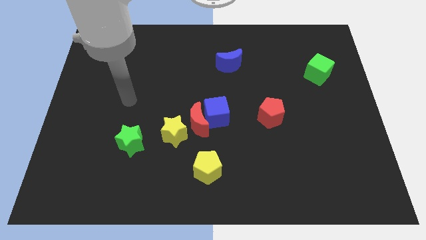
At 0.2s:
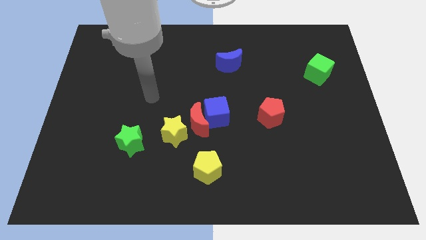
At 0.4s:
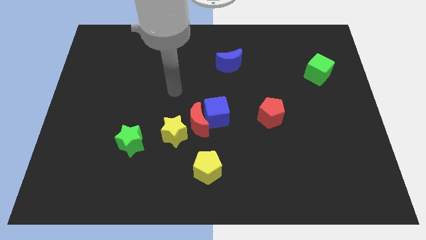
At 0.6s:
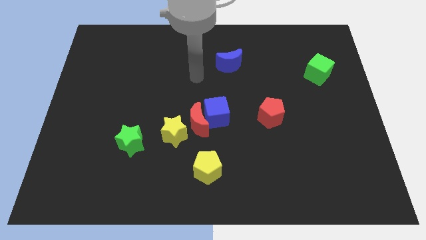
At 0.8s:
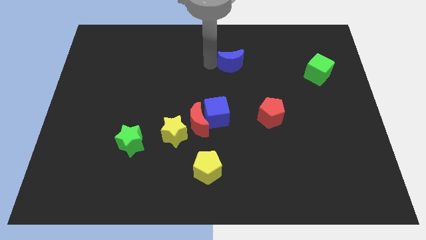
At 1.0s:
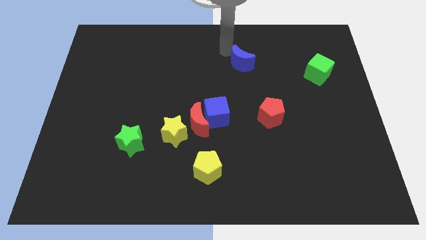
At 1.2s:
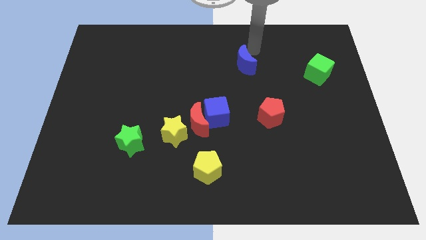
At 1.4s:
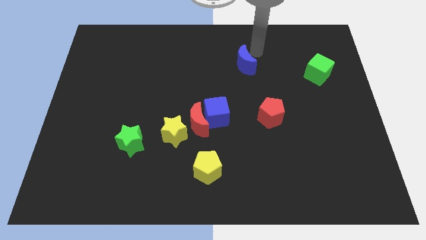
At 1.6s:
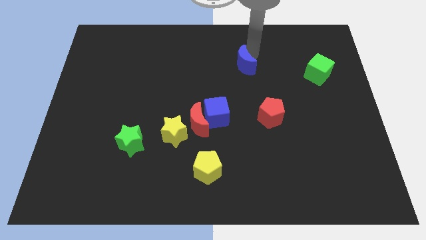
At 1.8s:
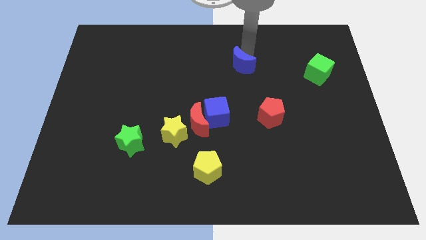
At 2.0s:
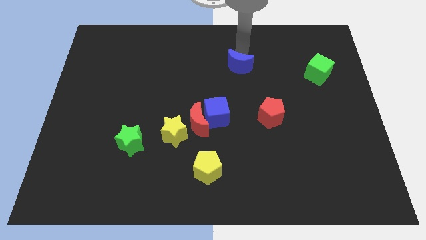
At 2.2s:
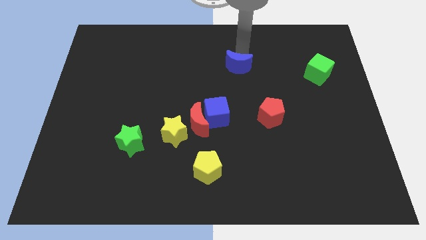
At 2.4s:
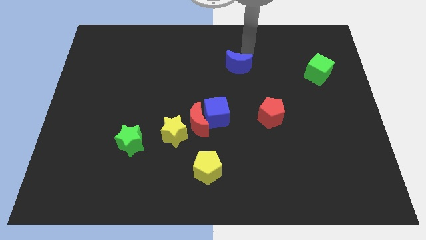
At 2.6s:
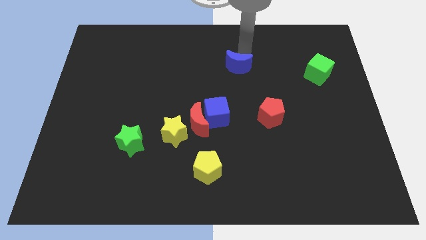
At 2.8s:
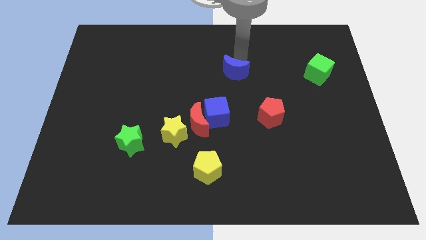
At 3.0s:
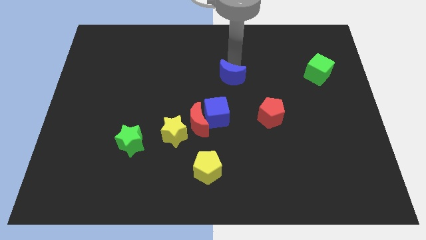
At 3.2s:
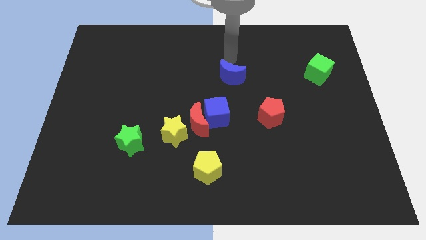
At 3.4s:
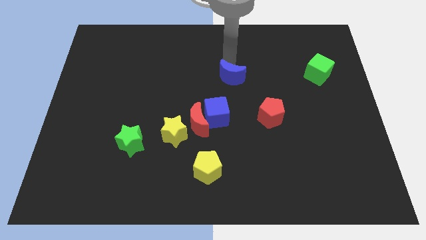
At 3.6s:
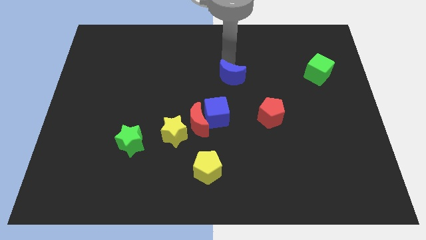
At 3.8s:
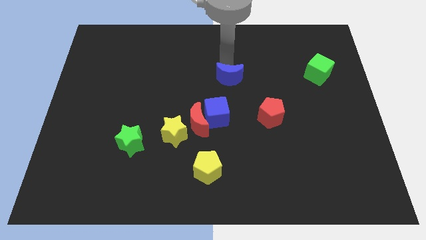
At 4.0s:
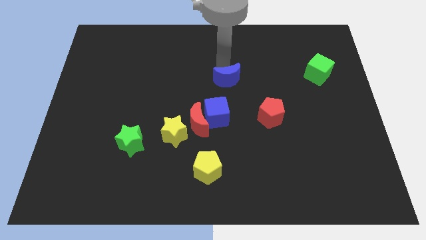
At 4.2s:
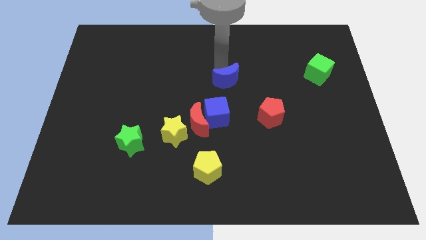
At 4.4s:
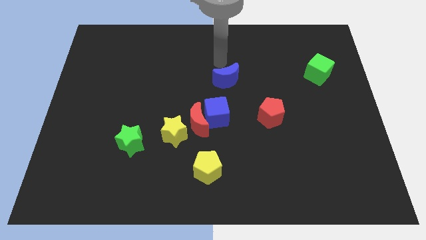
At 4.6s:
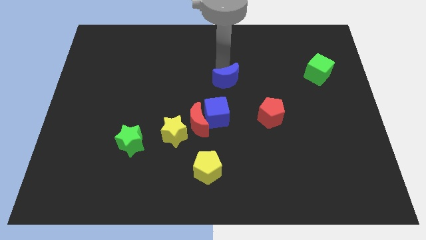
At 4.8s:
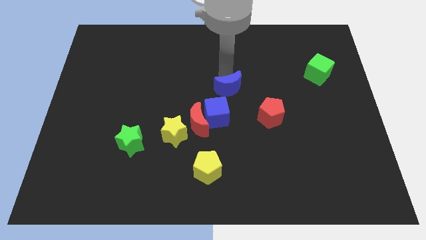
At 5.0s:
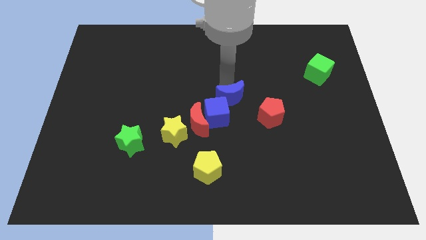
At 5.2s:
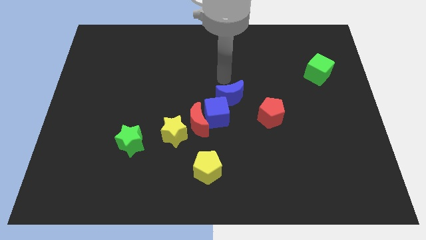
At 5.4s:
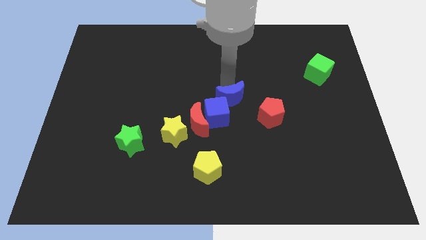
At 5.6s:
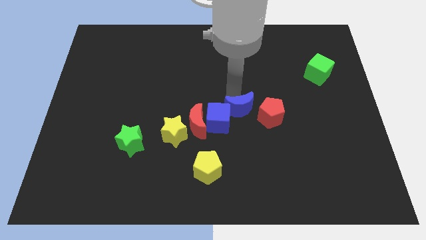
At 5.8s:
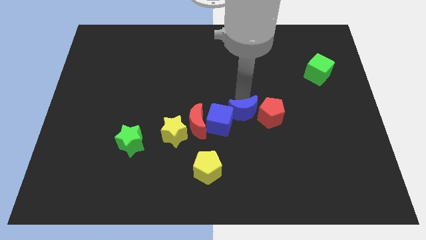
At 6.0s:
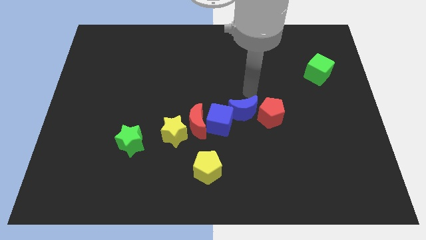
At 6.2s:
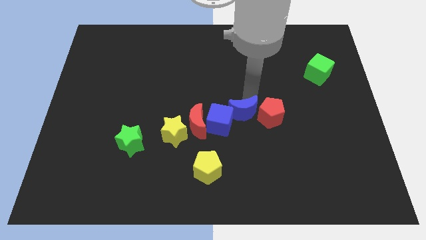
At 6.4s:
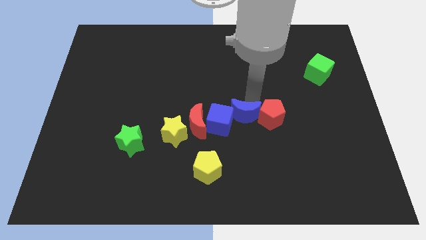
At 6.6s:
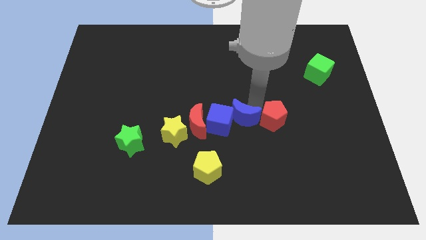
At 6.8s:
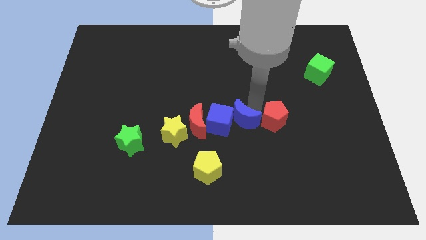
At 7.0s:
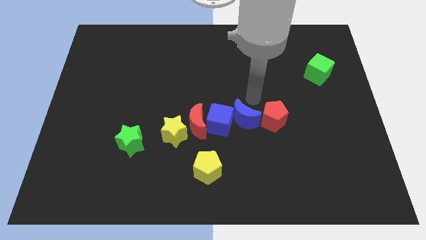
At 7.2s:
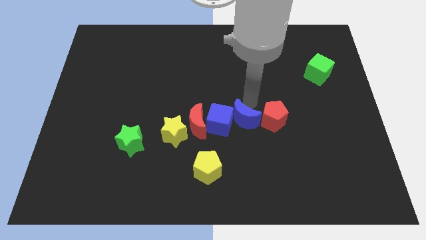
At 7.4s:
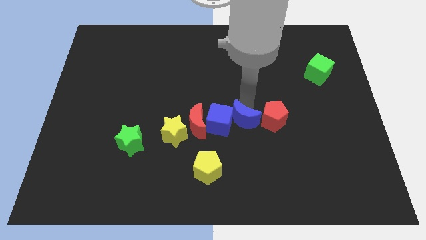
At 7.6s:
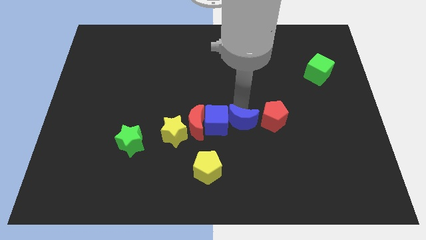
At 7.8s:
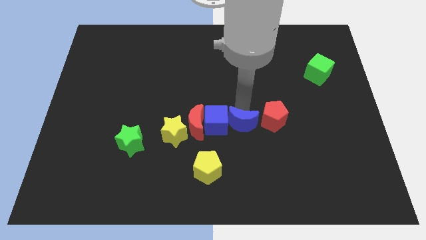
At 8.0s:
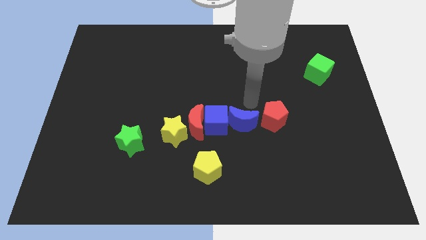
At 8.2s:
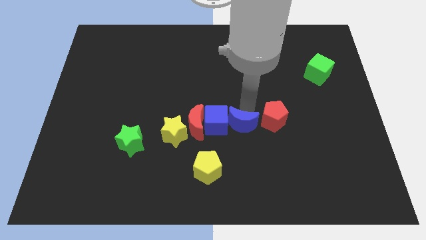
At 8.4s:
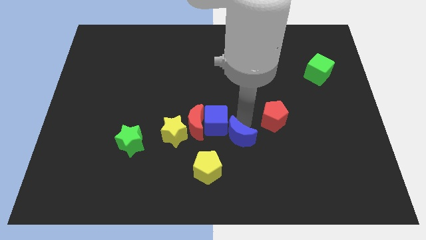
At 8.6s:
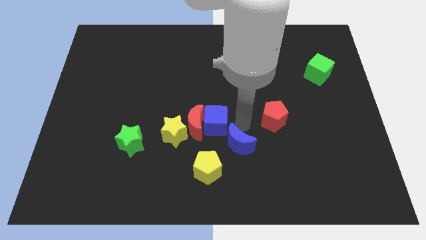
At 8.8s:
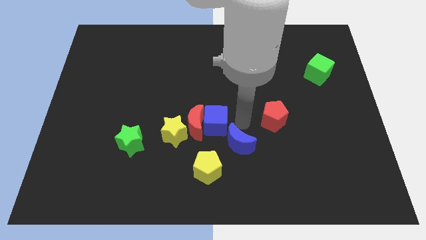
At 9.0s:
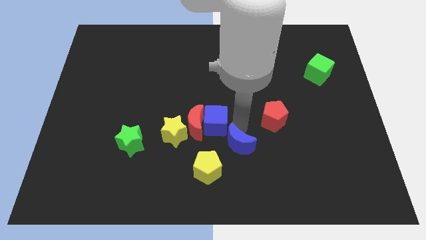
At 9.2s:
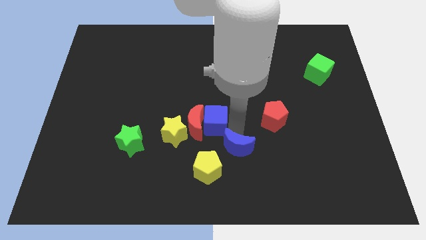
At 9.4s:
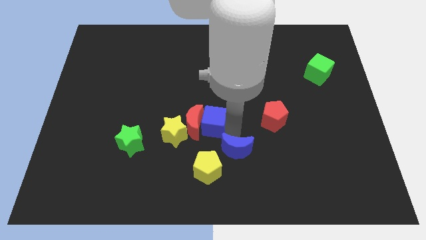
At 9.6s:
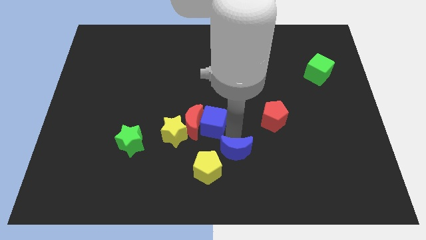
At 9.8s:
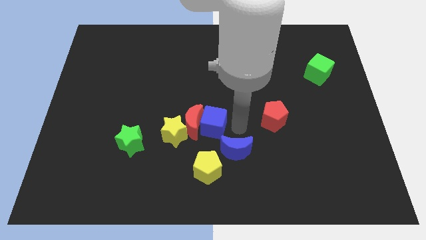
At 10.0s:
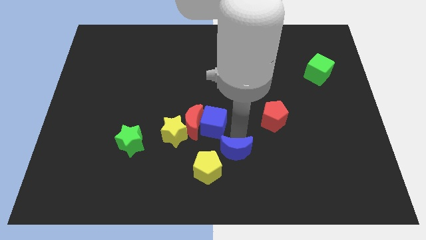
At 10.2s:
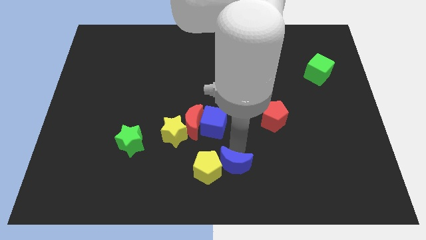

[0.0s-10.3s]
put the blue moon to the bottom side

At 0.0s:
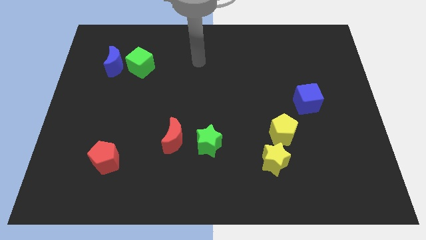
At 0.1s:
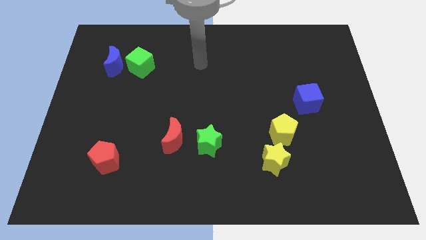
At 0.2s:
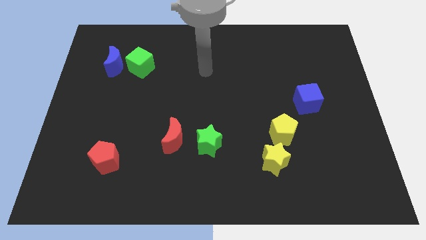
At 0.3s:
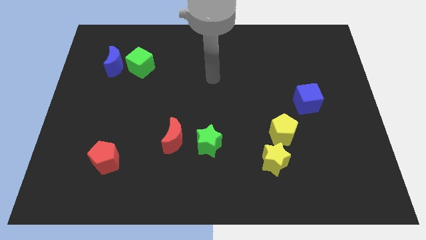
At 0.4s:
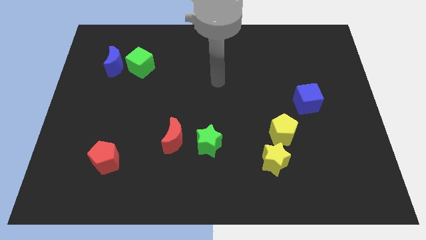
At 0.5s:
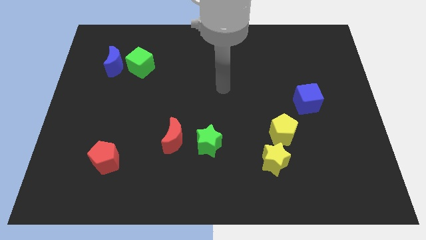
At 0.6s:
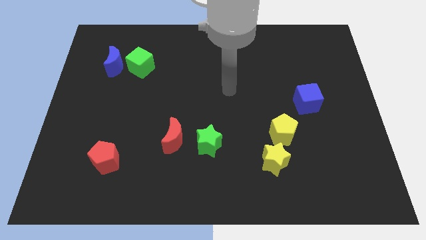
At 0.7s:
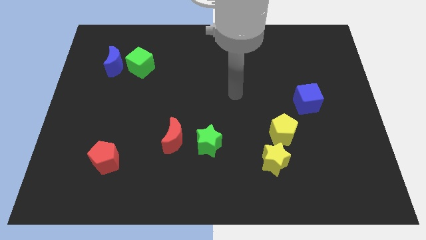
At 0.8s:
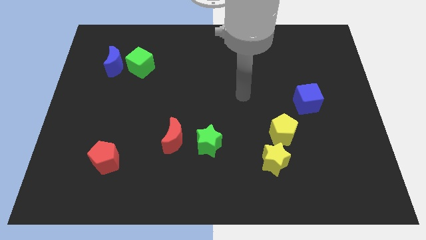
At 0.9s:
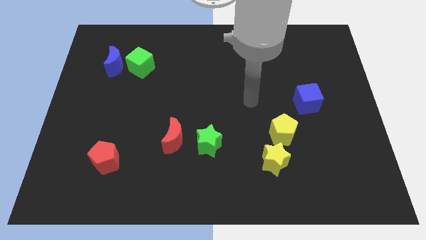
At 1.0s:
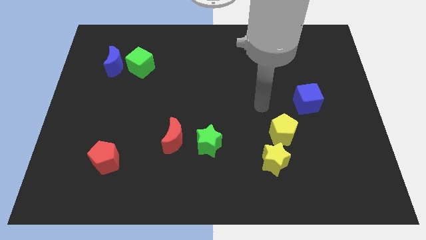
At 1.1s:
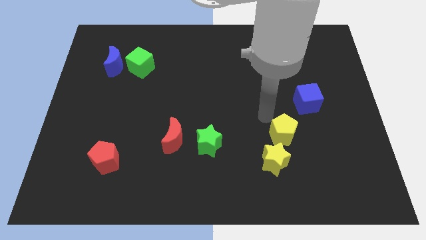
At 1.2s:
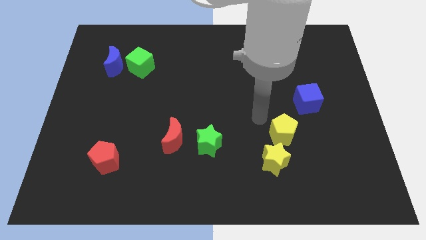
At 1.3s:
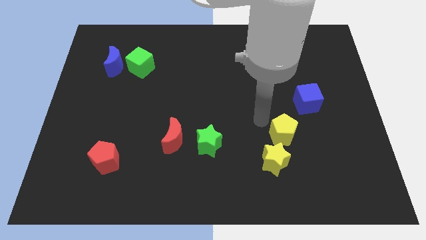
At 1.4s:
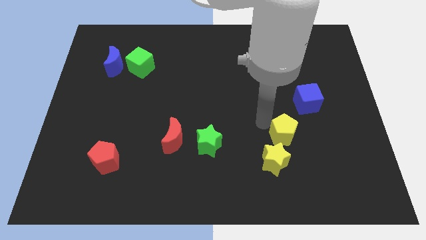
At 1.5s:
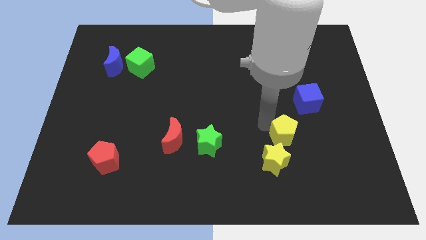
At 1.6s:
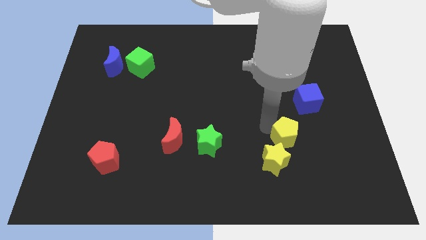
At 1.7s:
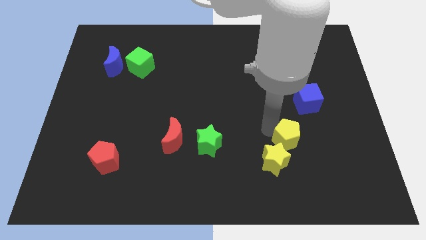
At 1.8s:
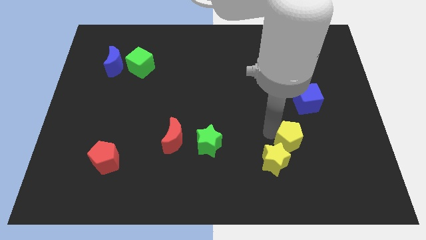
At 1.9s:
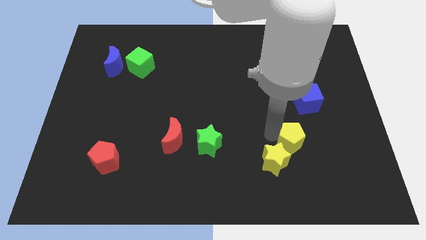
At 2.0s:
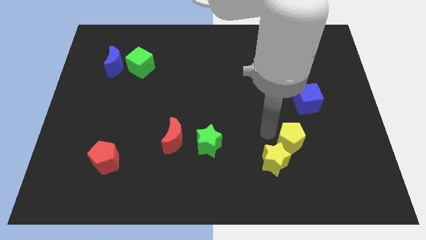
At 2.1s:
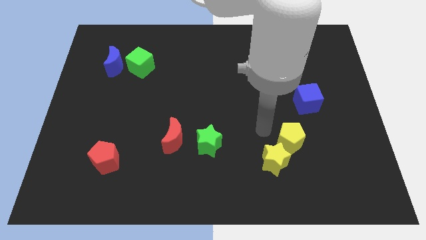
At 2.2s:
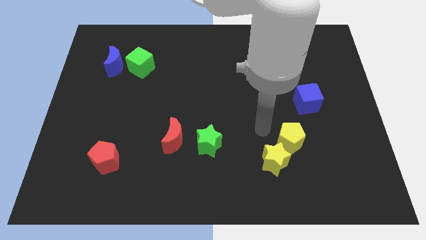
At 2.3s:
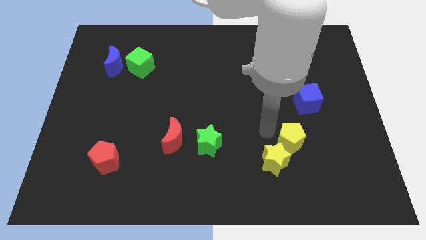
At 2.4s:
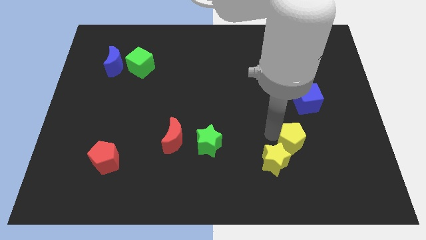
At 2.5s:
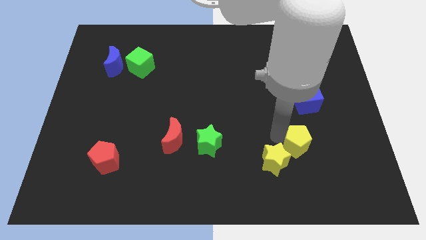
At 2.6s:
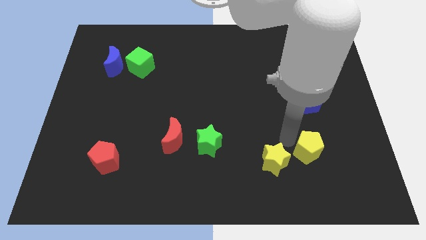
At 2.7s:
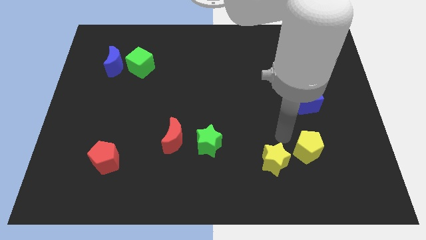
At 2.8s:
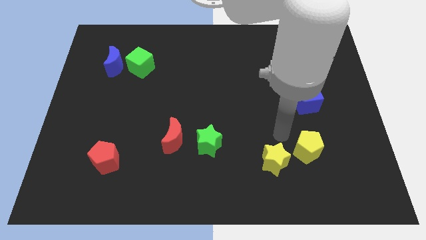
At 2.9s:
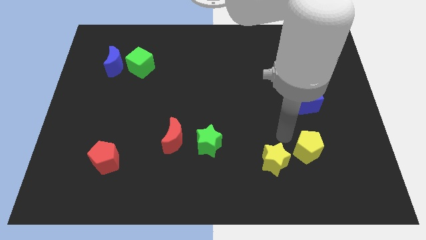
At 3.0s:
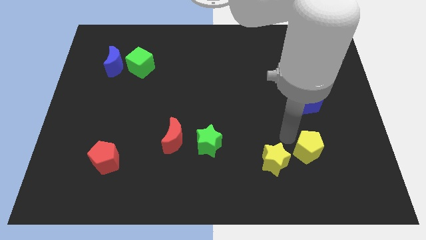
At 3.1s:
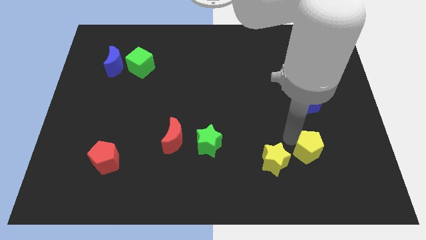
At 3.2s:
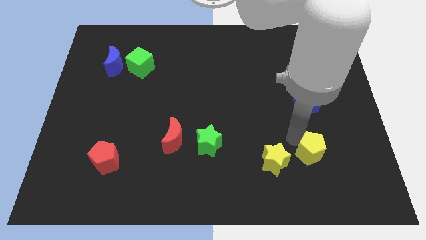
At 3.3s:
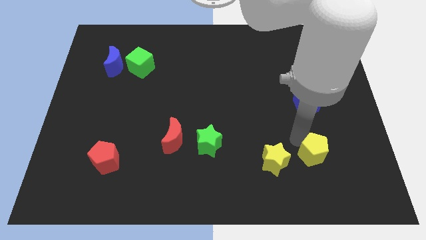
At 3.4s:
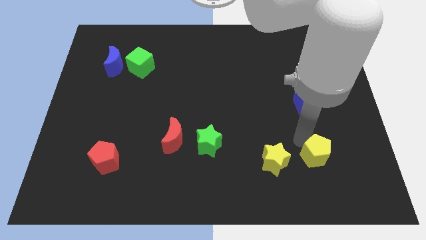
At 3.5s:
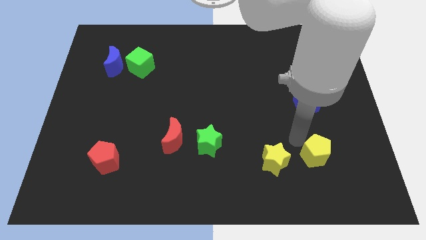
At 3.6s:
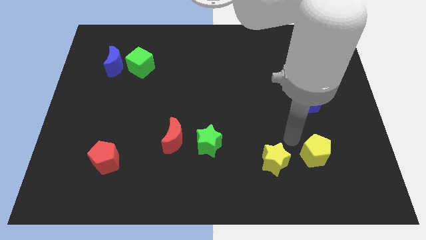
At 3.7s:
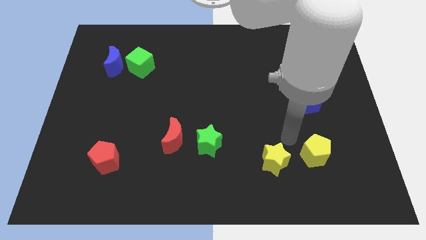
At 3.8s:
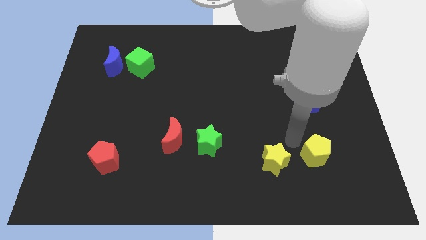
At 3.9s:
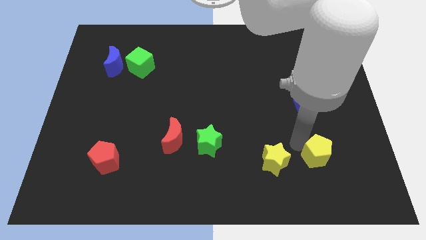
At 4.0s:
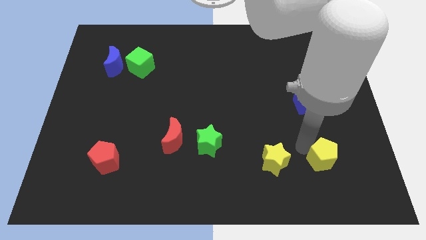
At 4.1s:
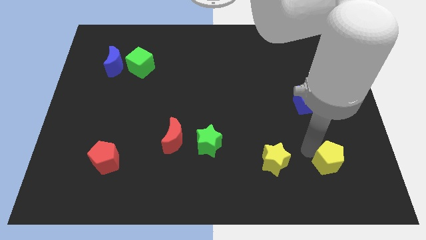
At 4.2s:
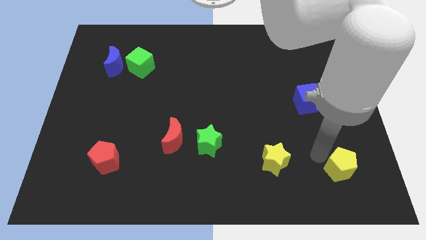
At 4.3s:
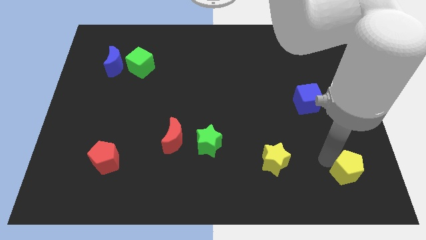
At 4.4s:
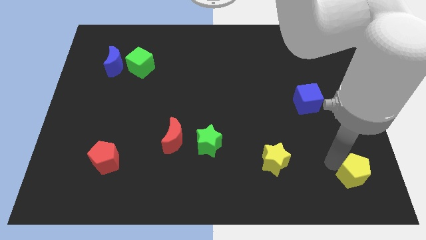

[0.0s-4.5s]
move the yellow pentagon to the lower right corner
